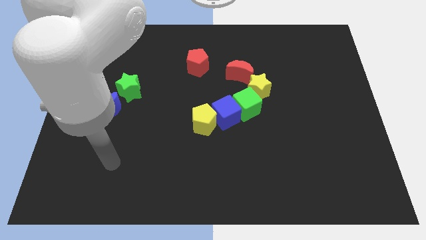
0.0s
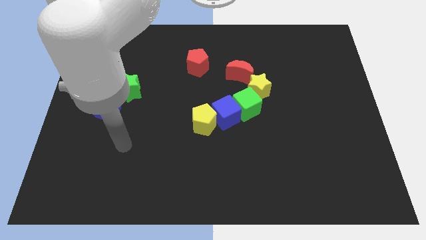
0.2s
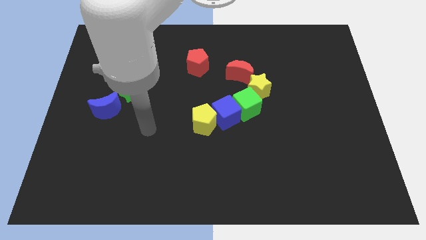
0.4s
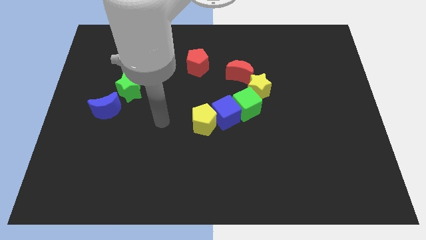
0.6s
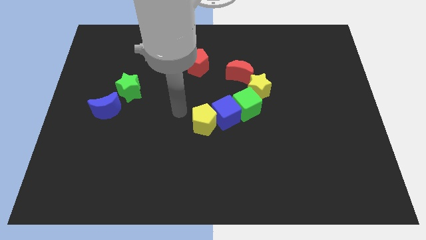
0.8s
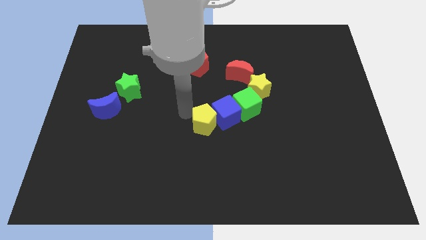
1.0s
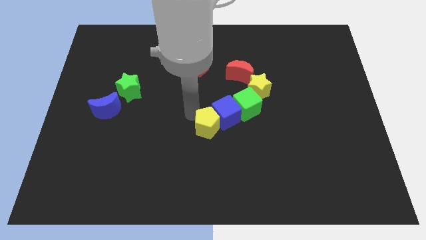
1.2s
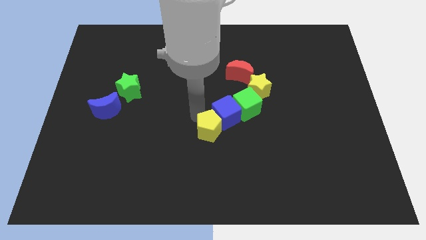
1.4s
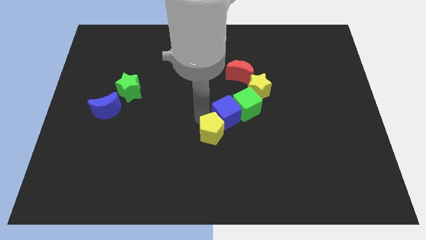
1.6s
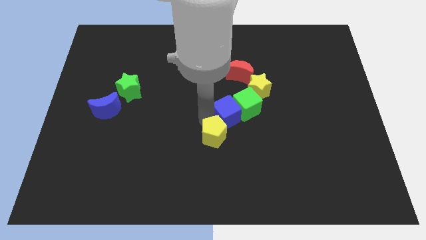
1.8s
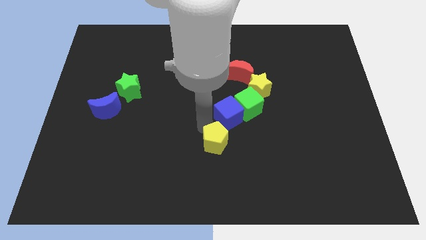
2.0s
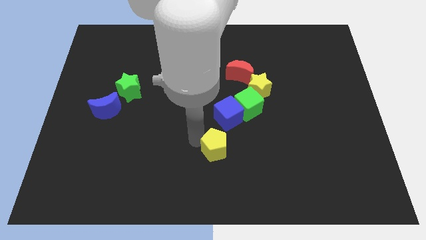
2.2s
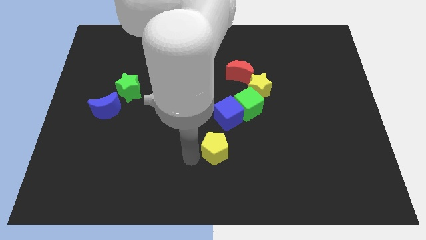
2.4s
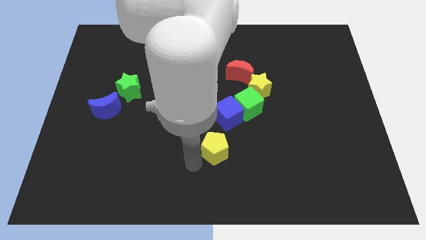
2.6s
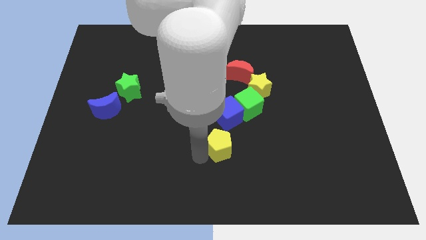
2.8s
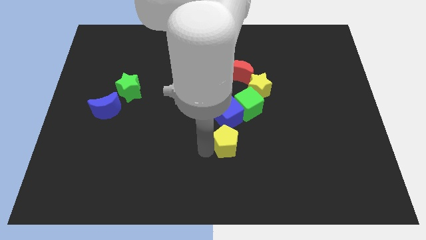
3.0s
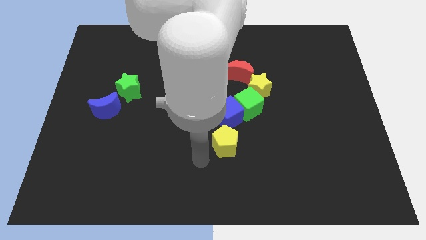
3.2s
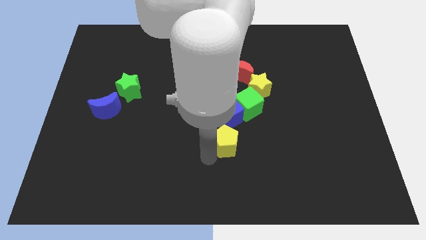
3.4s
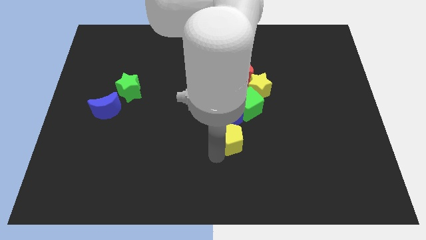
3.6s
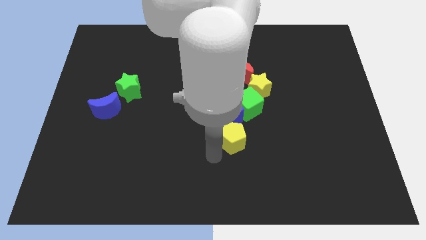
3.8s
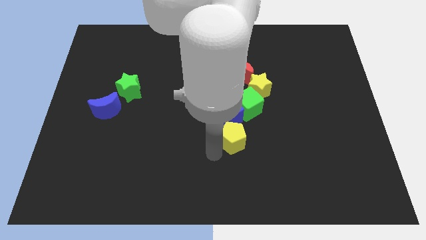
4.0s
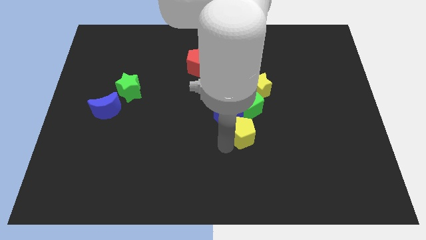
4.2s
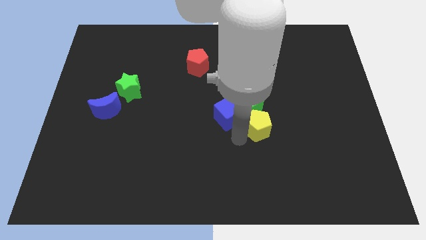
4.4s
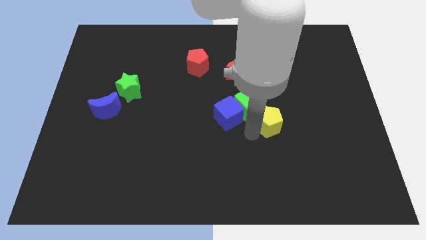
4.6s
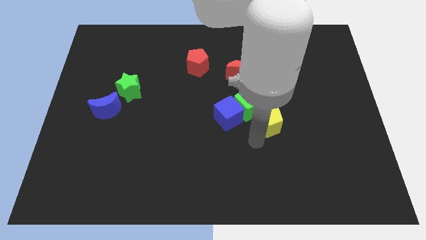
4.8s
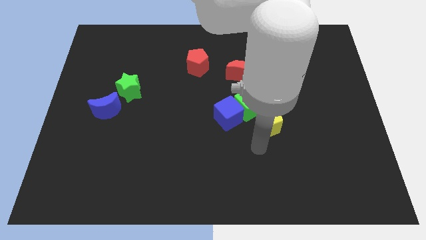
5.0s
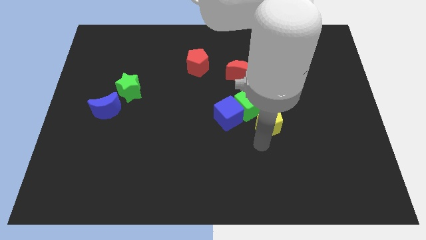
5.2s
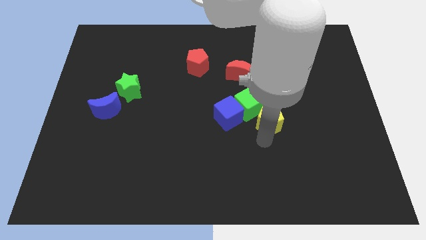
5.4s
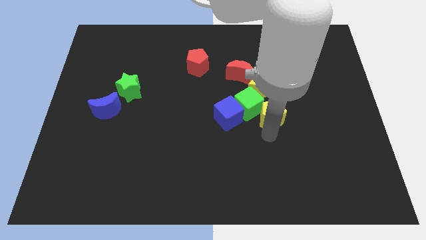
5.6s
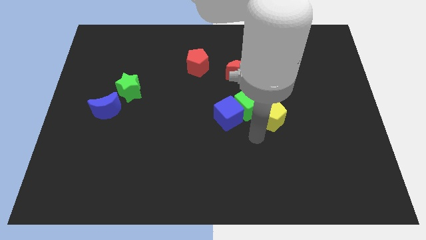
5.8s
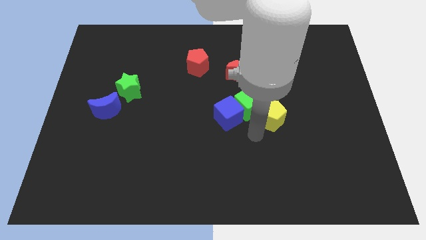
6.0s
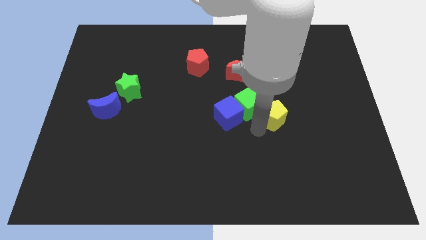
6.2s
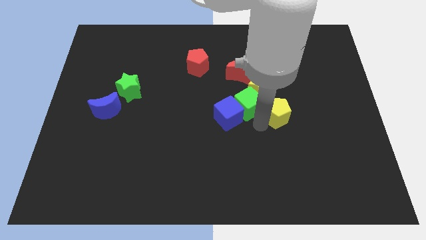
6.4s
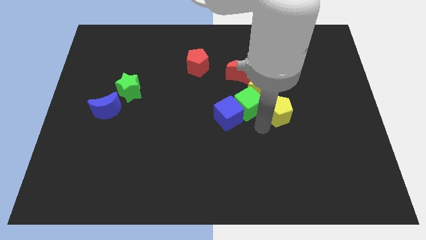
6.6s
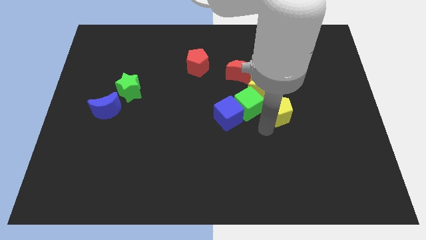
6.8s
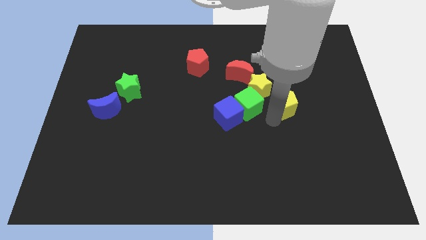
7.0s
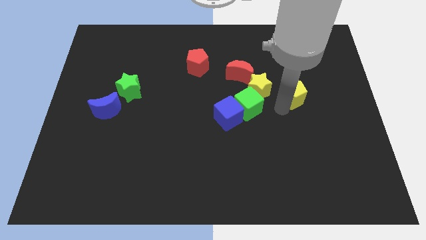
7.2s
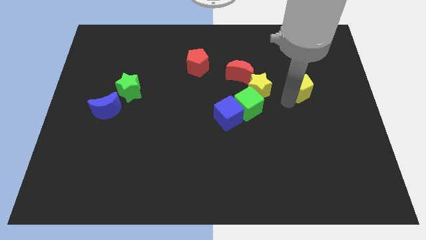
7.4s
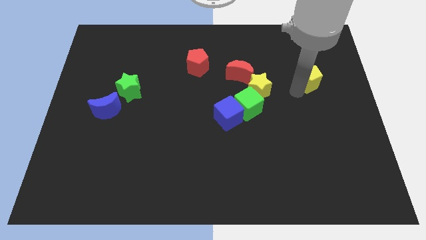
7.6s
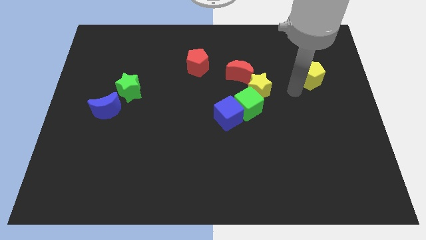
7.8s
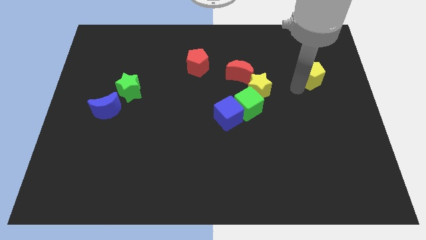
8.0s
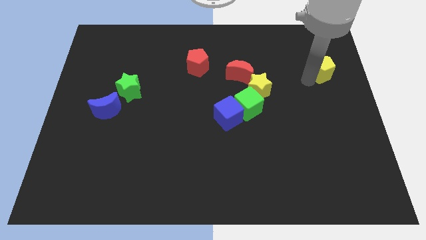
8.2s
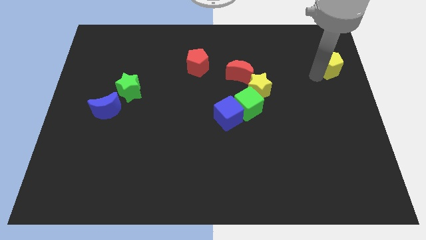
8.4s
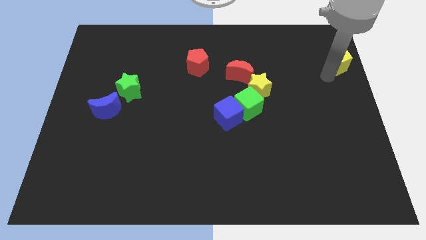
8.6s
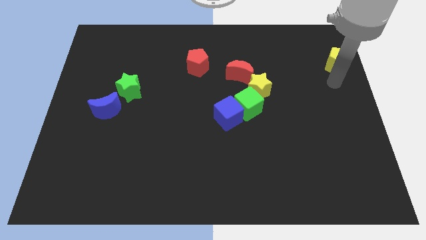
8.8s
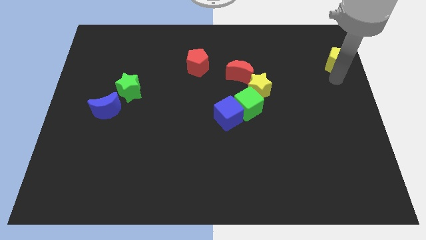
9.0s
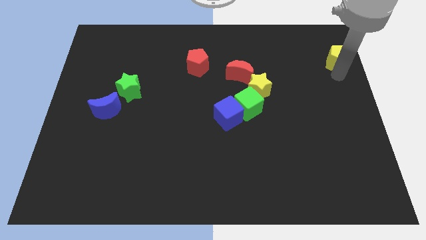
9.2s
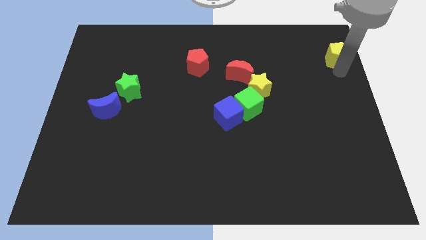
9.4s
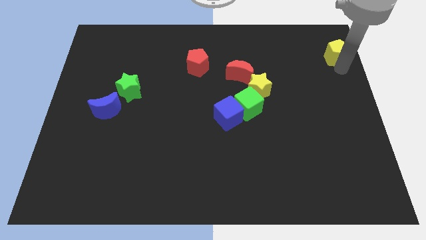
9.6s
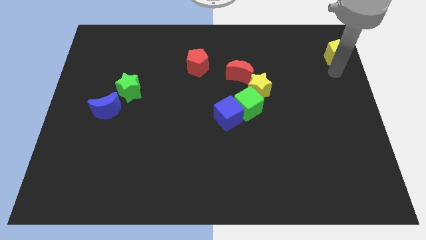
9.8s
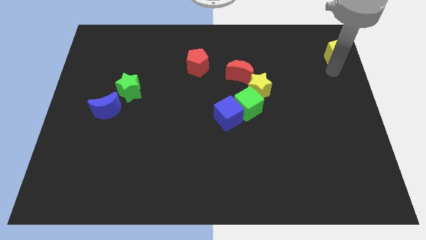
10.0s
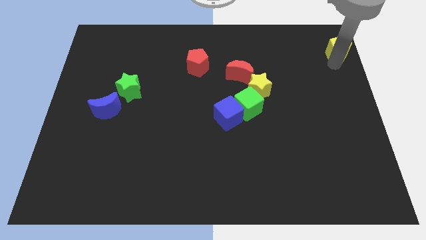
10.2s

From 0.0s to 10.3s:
push the yellow pentagon to the top right

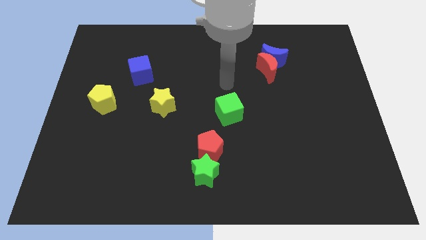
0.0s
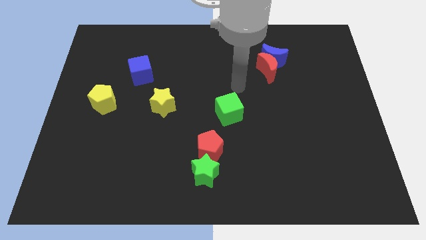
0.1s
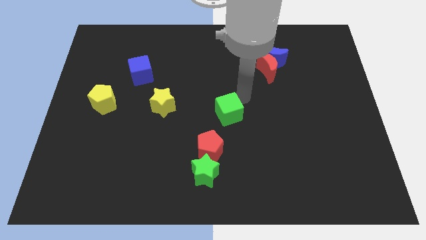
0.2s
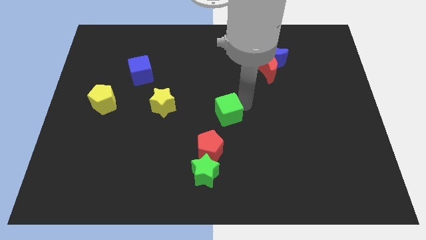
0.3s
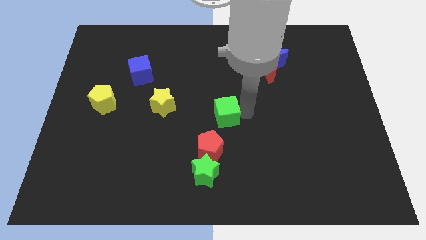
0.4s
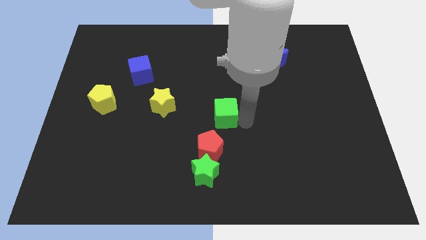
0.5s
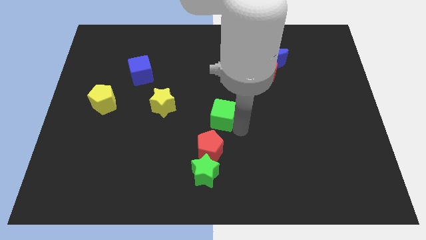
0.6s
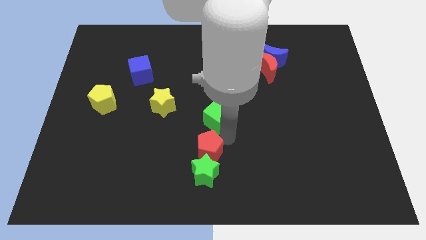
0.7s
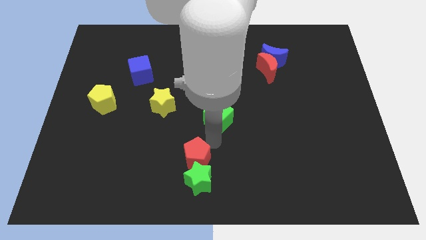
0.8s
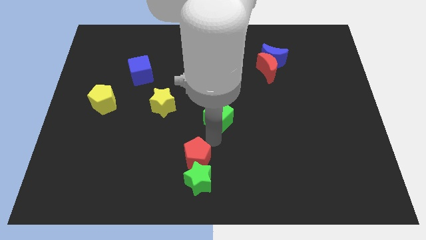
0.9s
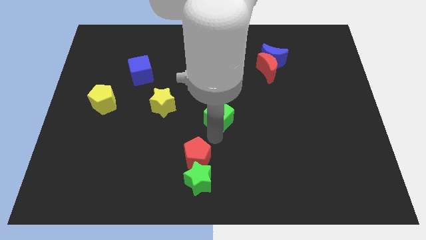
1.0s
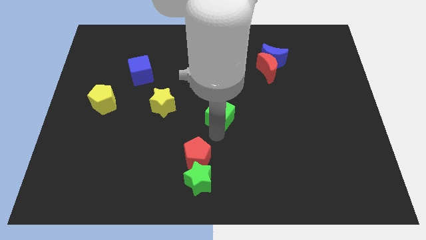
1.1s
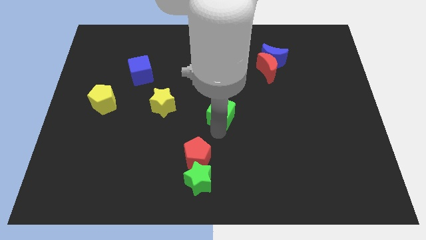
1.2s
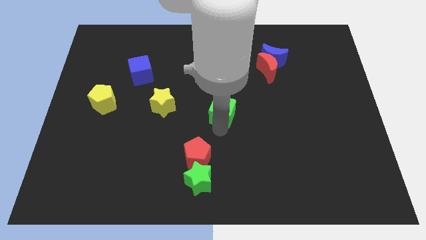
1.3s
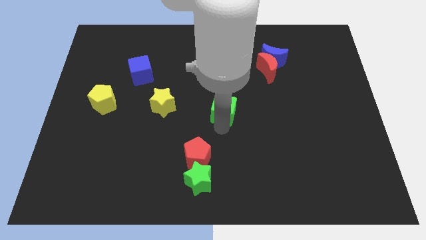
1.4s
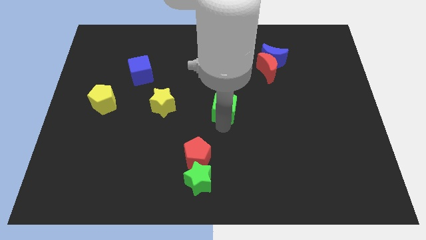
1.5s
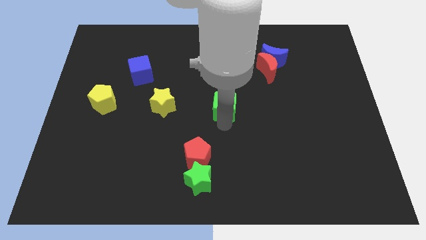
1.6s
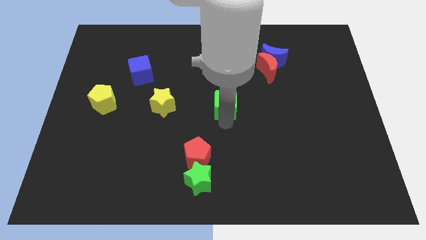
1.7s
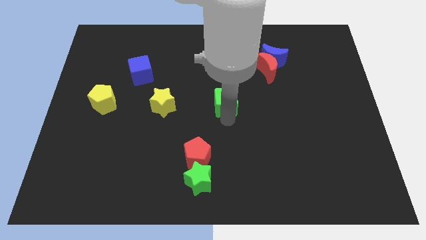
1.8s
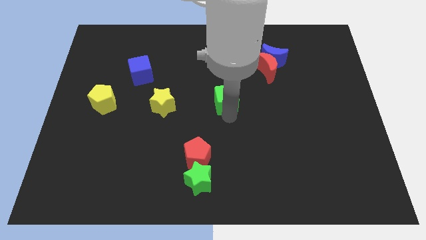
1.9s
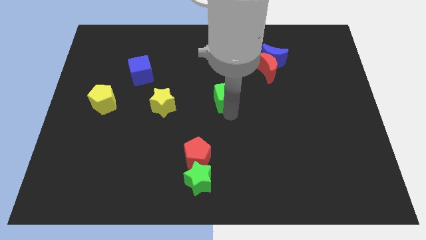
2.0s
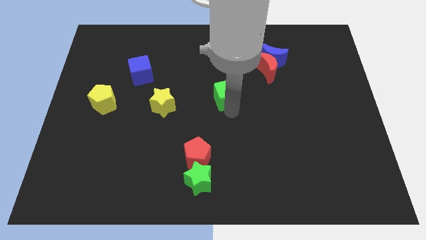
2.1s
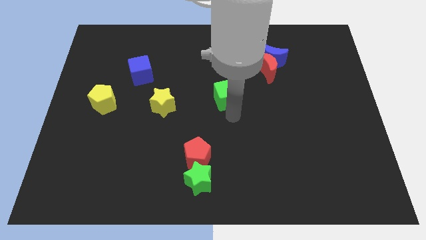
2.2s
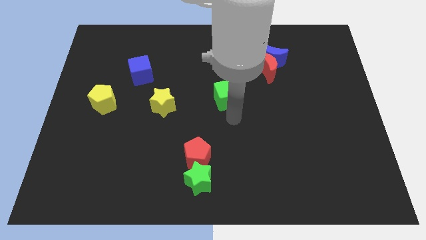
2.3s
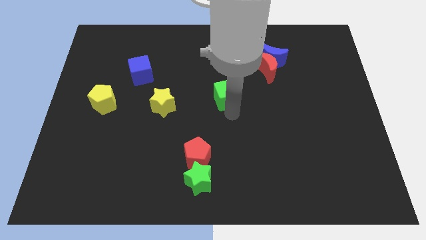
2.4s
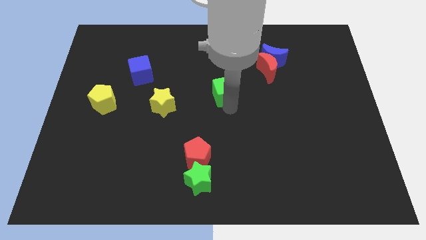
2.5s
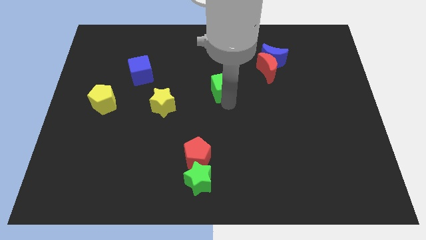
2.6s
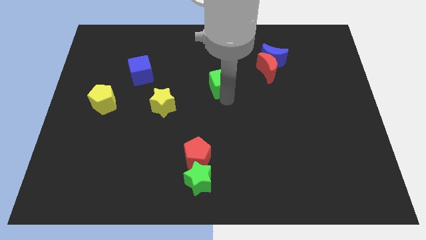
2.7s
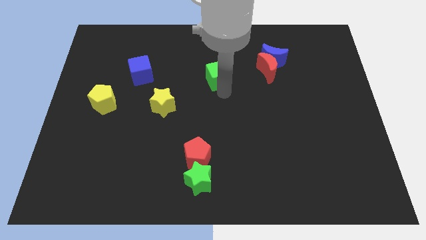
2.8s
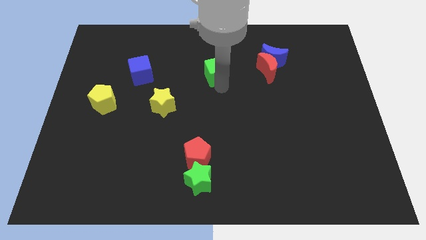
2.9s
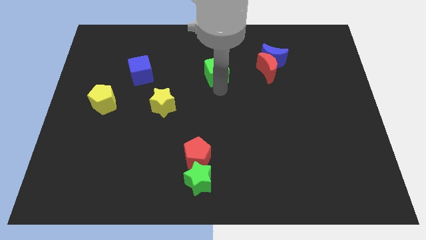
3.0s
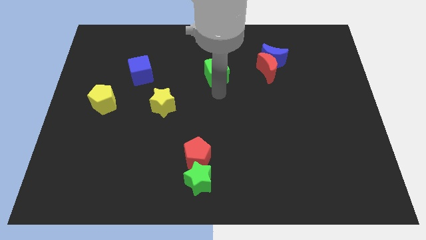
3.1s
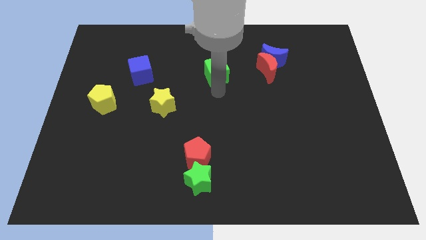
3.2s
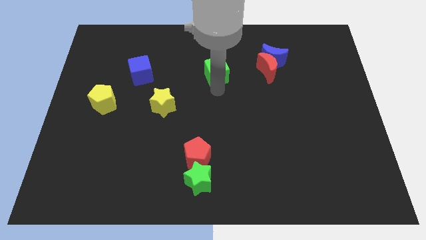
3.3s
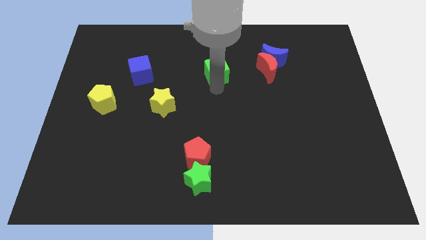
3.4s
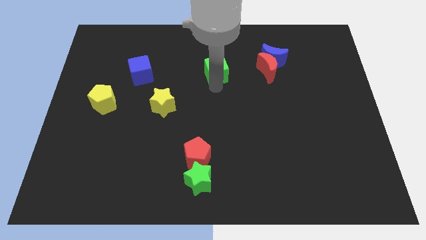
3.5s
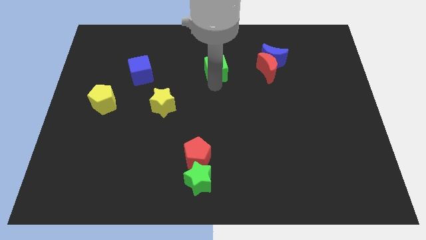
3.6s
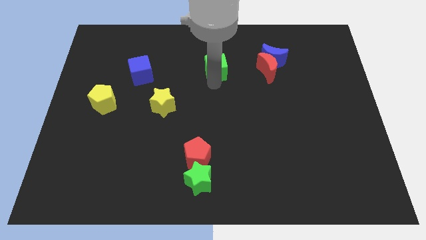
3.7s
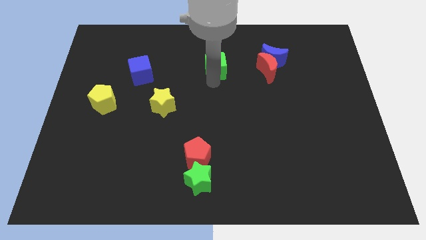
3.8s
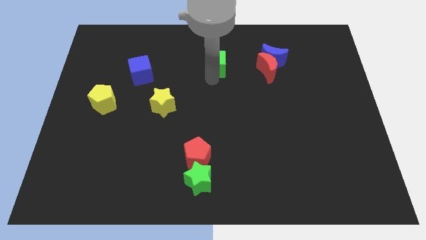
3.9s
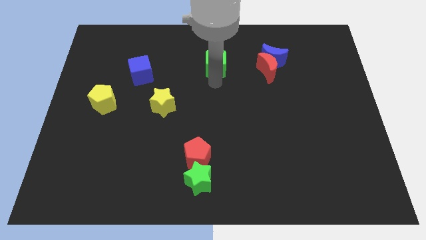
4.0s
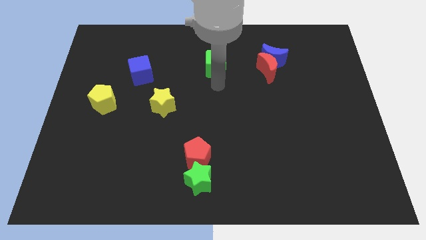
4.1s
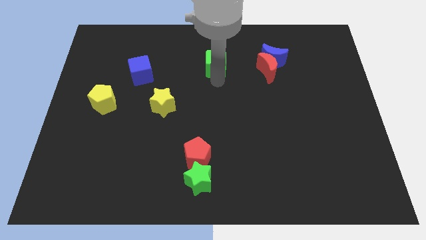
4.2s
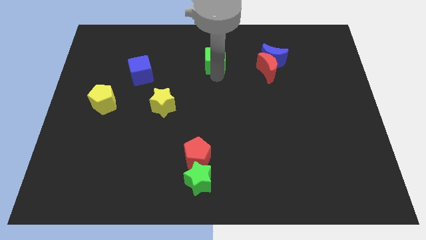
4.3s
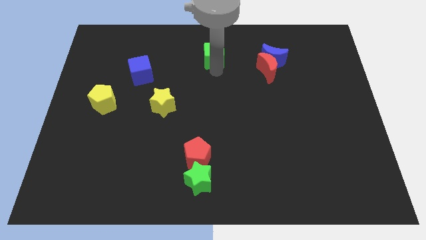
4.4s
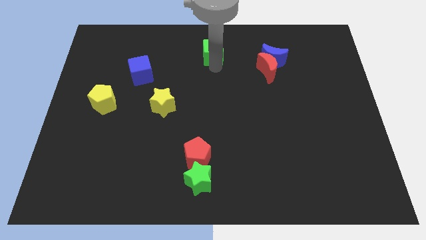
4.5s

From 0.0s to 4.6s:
push the green cube to the top side
